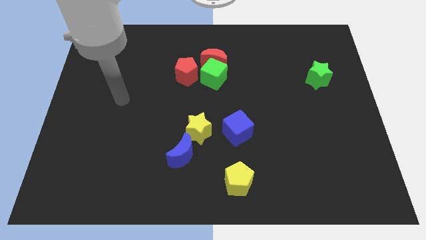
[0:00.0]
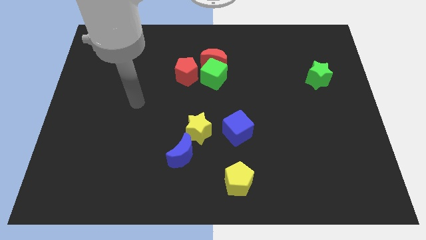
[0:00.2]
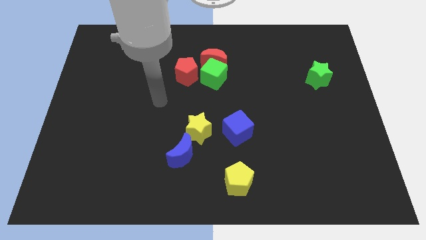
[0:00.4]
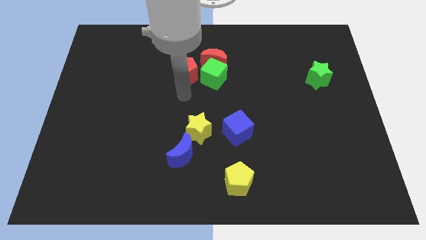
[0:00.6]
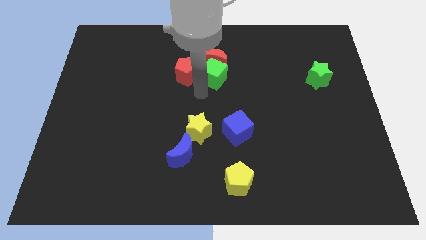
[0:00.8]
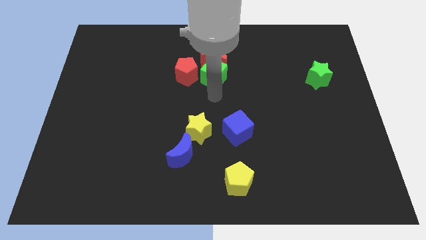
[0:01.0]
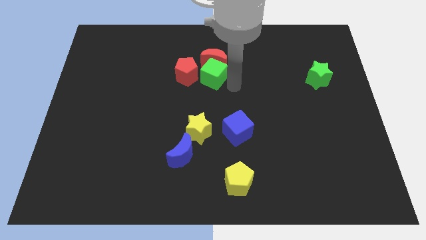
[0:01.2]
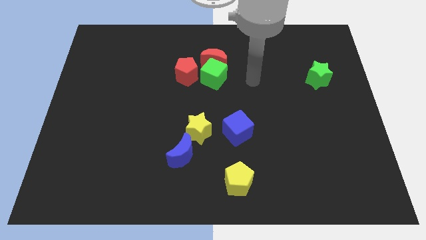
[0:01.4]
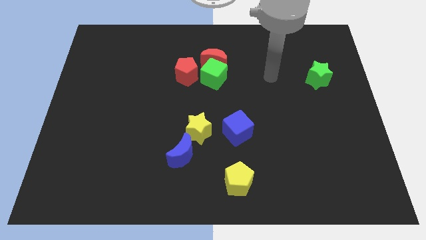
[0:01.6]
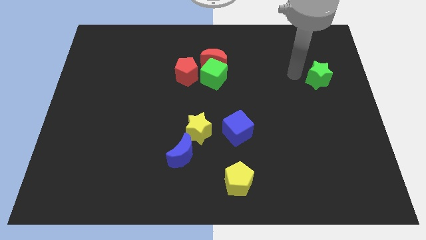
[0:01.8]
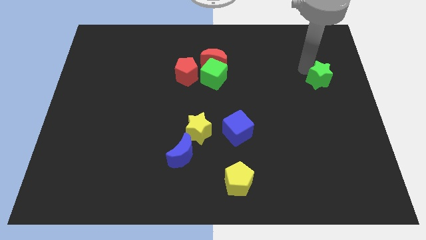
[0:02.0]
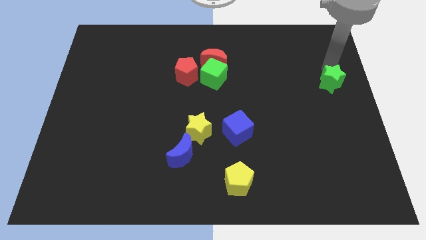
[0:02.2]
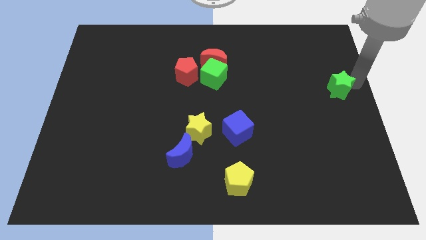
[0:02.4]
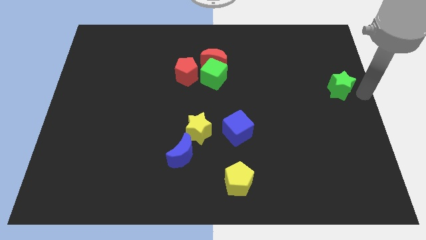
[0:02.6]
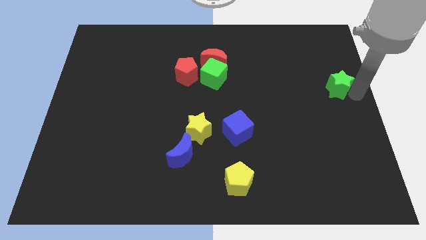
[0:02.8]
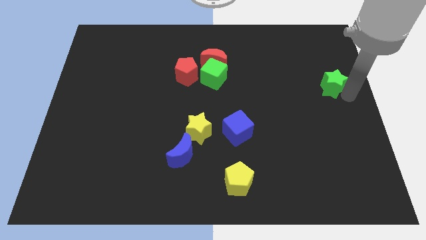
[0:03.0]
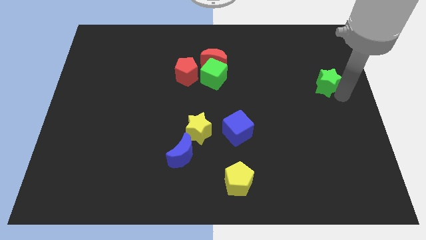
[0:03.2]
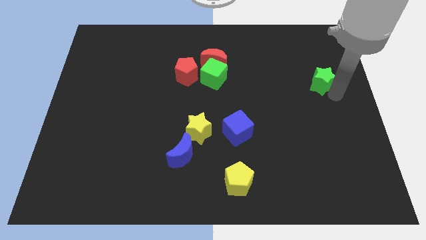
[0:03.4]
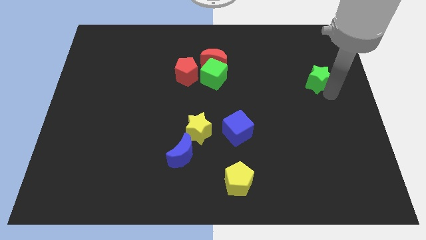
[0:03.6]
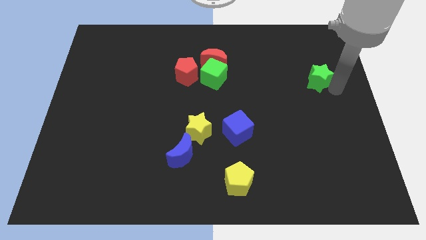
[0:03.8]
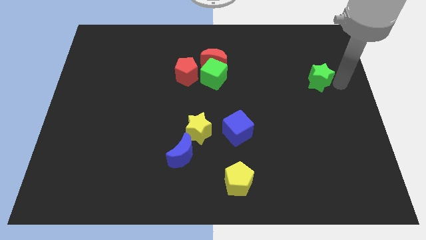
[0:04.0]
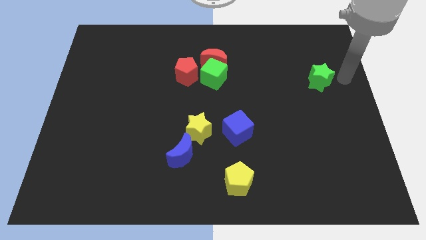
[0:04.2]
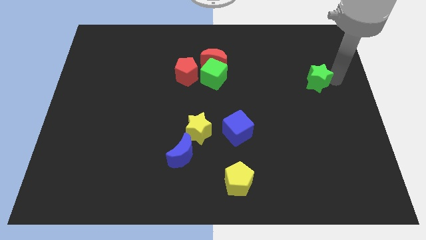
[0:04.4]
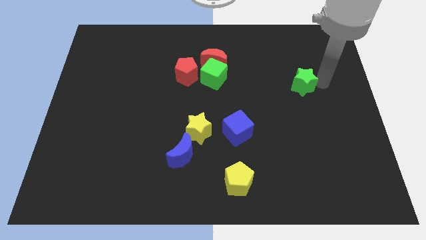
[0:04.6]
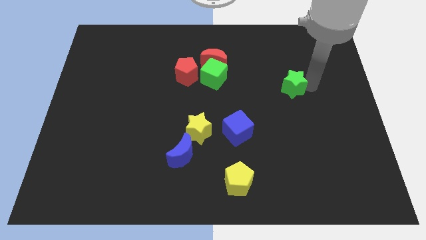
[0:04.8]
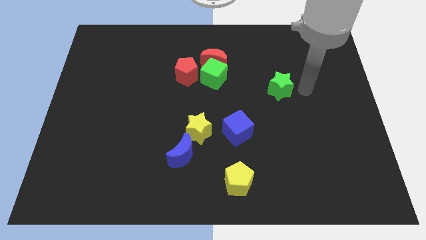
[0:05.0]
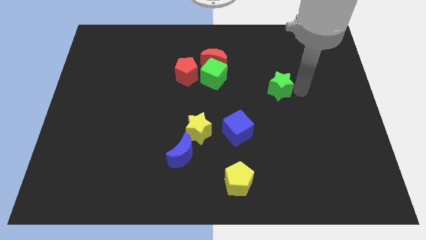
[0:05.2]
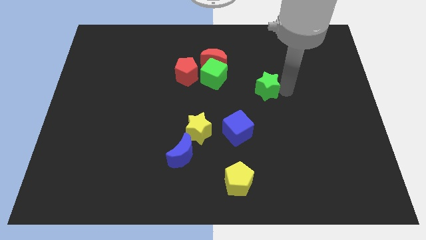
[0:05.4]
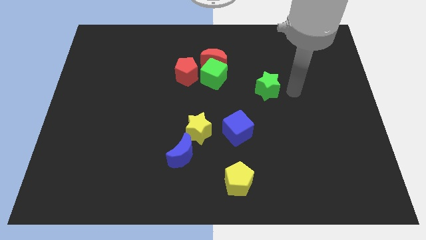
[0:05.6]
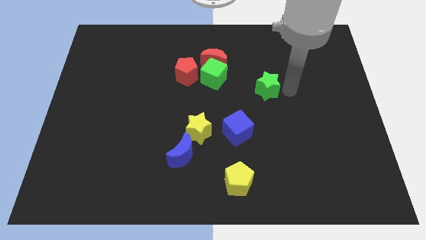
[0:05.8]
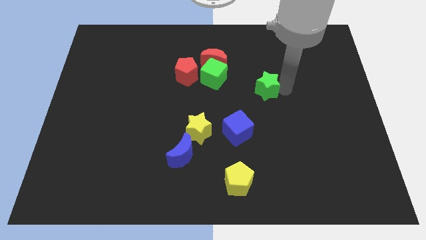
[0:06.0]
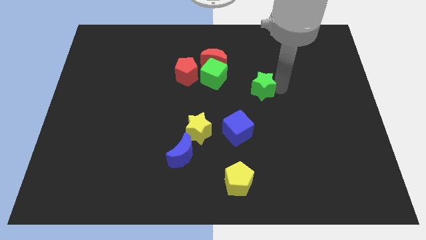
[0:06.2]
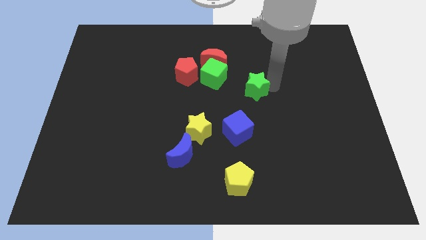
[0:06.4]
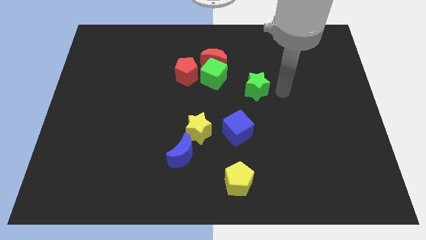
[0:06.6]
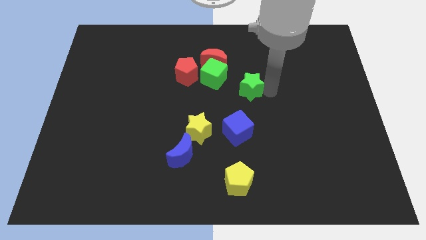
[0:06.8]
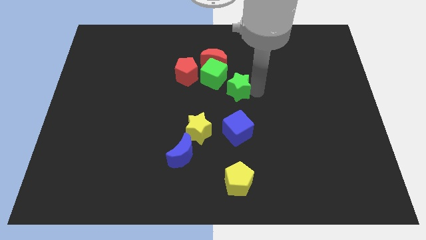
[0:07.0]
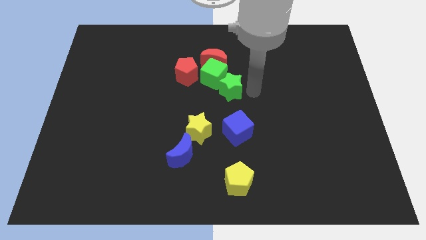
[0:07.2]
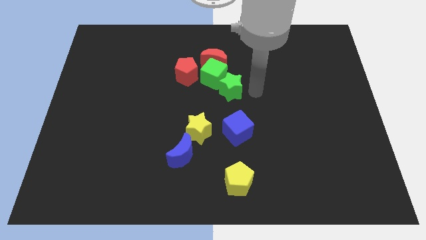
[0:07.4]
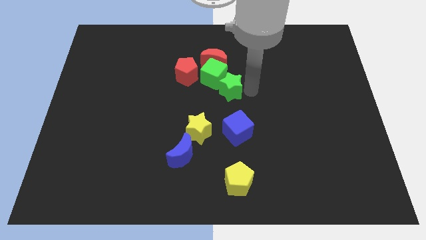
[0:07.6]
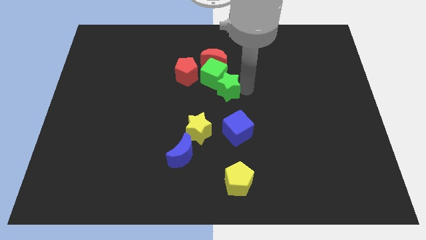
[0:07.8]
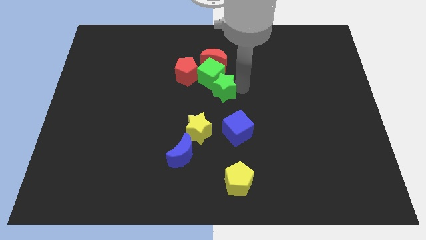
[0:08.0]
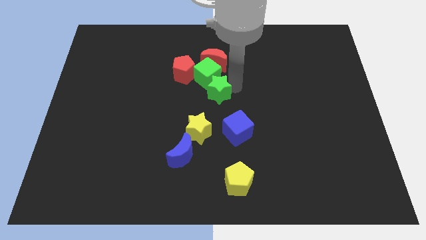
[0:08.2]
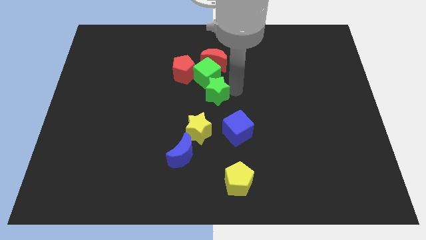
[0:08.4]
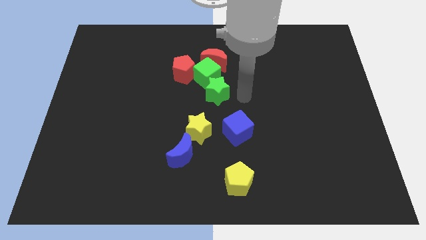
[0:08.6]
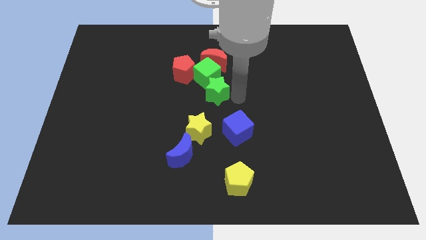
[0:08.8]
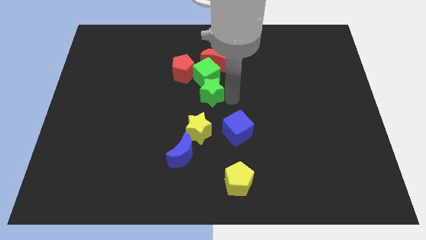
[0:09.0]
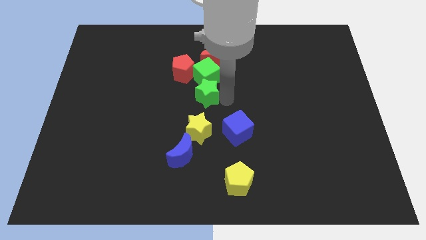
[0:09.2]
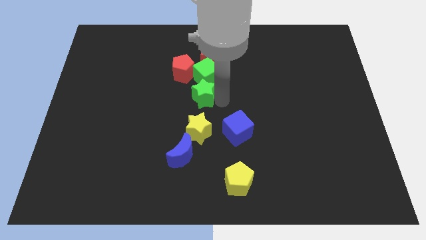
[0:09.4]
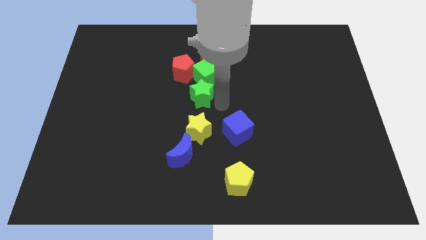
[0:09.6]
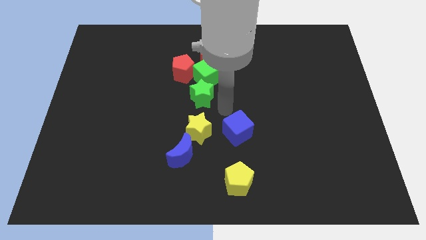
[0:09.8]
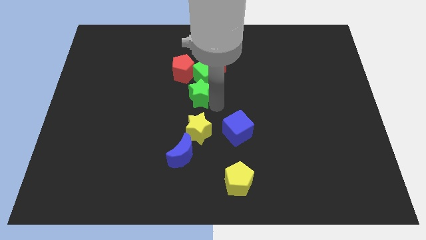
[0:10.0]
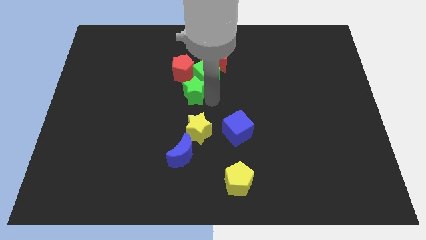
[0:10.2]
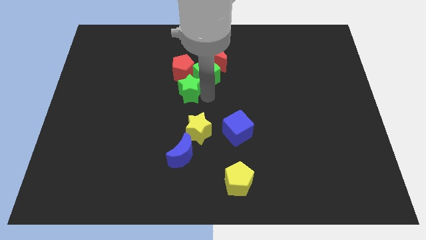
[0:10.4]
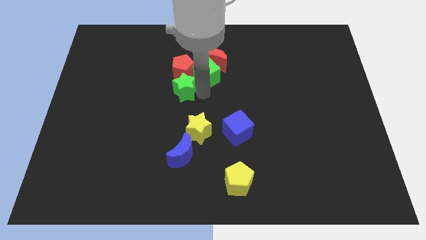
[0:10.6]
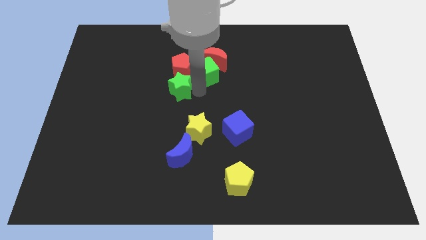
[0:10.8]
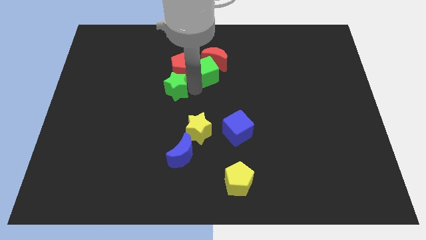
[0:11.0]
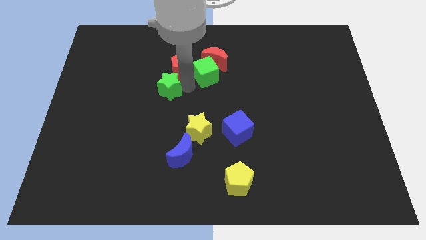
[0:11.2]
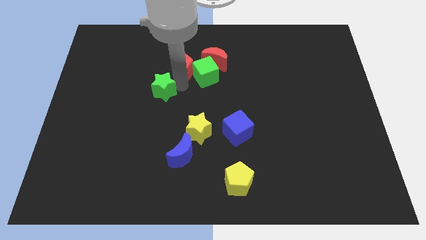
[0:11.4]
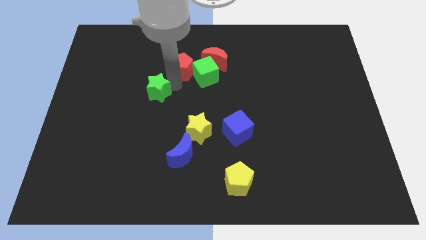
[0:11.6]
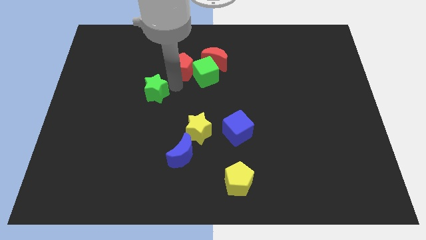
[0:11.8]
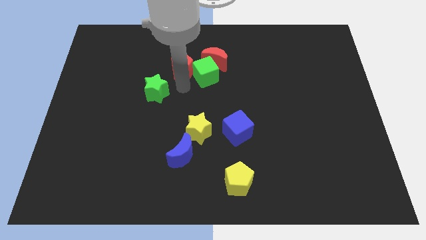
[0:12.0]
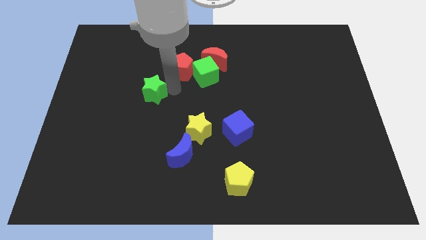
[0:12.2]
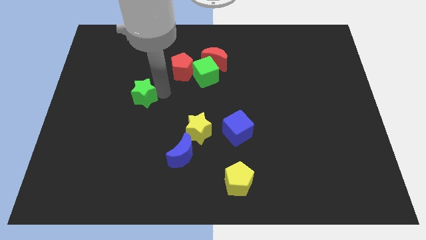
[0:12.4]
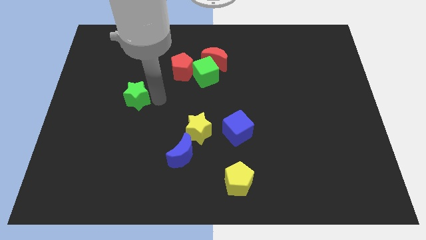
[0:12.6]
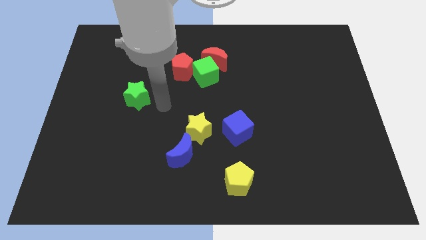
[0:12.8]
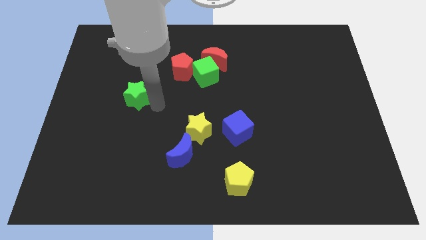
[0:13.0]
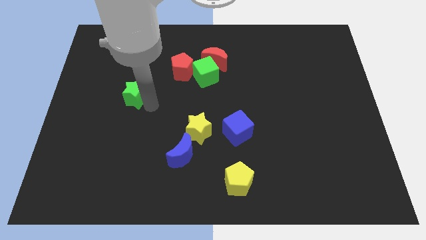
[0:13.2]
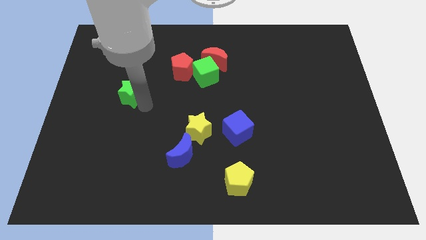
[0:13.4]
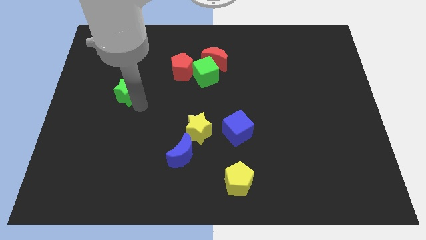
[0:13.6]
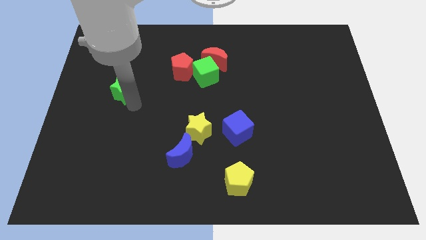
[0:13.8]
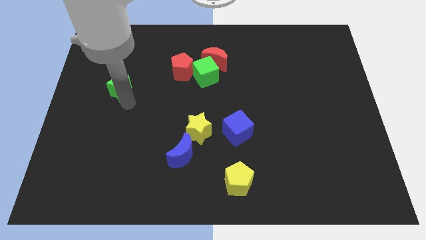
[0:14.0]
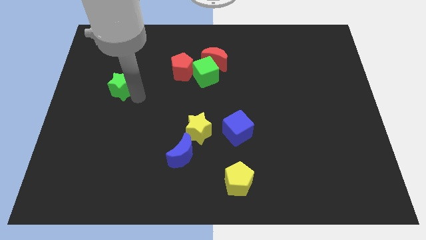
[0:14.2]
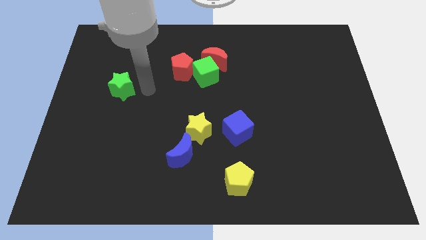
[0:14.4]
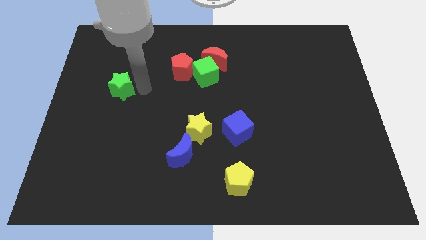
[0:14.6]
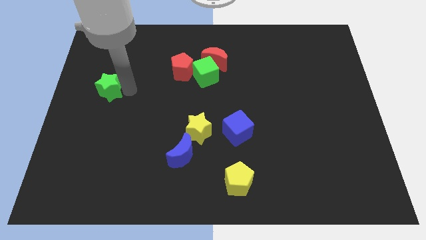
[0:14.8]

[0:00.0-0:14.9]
push the green star to the left side of the board
